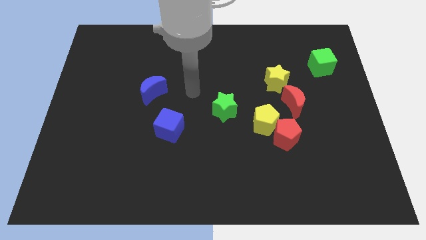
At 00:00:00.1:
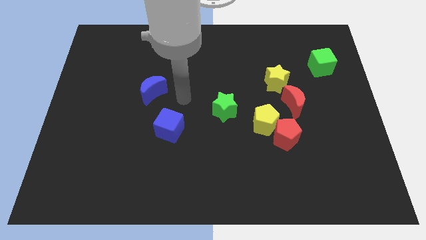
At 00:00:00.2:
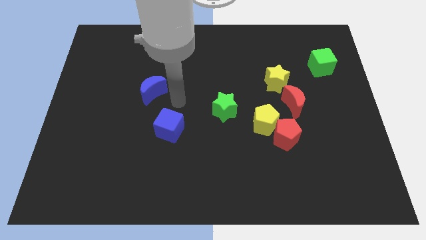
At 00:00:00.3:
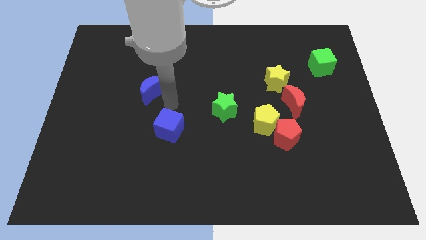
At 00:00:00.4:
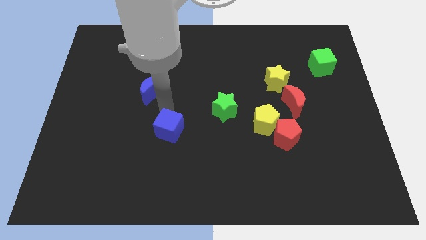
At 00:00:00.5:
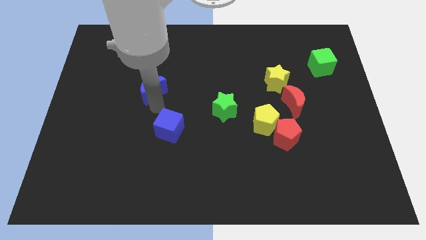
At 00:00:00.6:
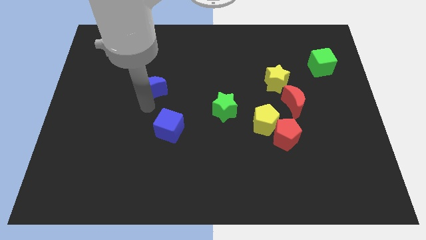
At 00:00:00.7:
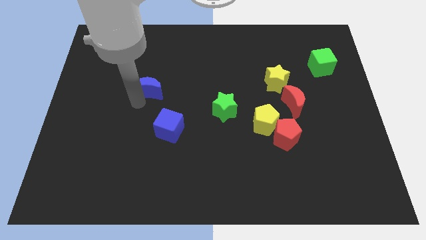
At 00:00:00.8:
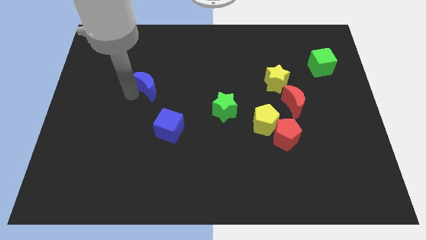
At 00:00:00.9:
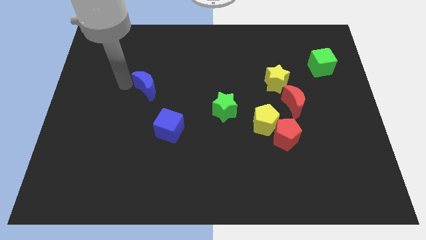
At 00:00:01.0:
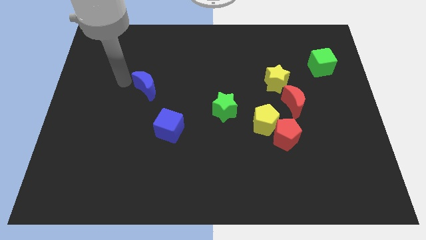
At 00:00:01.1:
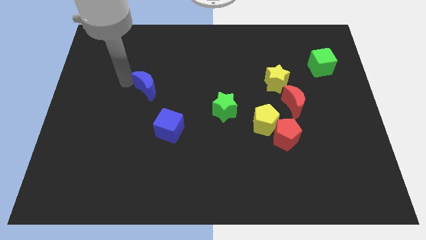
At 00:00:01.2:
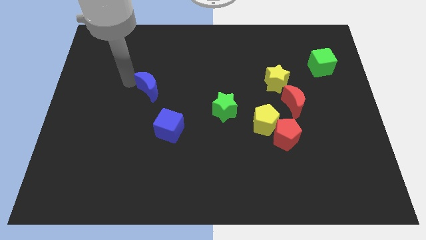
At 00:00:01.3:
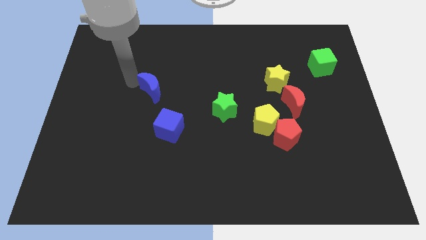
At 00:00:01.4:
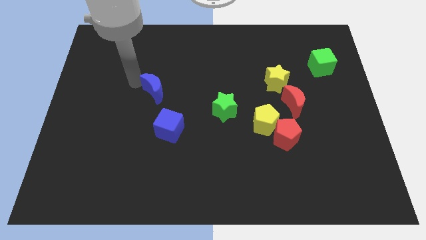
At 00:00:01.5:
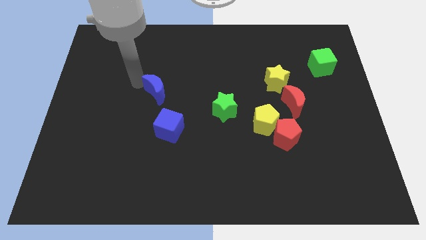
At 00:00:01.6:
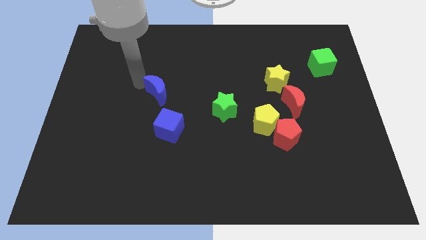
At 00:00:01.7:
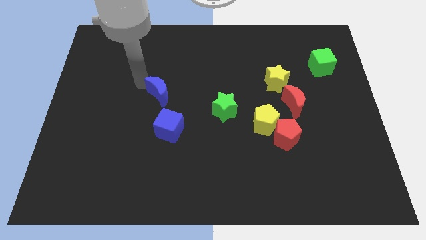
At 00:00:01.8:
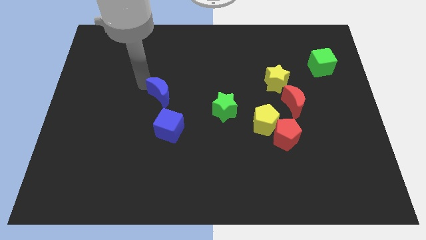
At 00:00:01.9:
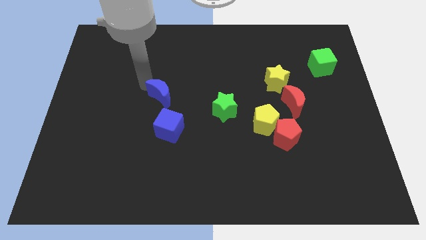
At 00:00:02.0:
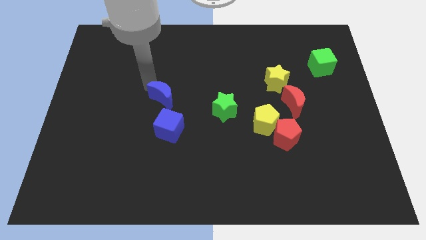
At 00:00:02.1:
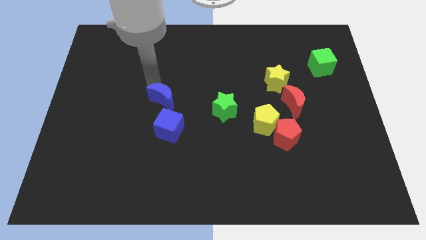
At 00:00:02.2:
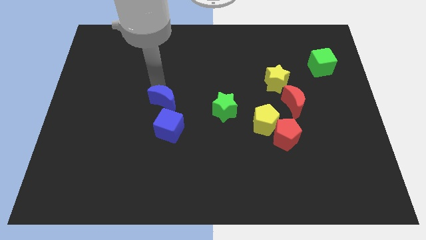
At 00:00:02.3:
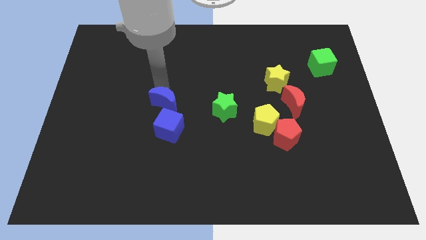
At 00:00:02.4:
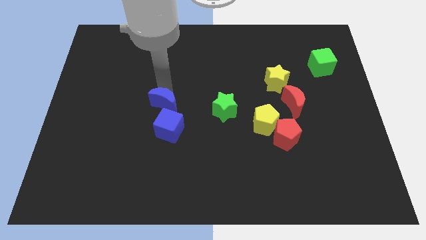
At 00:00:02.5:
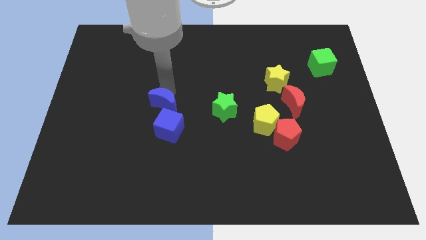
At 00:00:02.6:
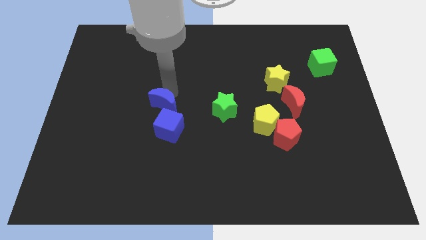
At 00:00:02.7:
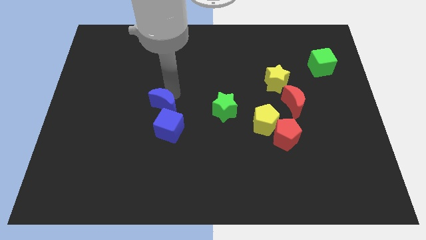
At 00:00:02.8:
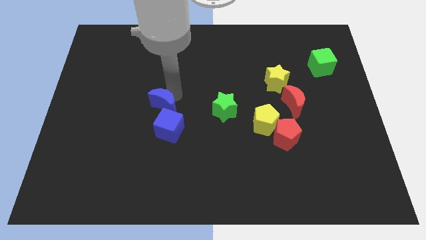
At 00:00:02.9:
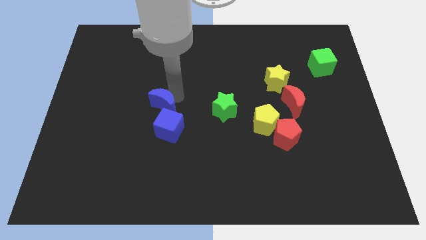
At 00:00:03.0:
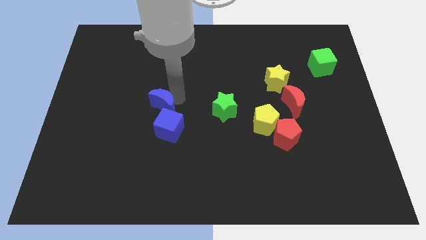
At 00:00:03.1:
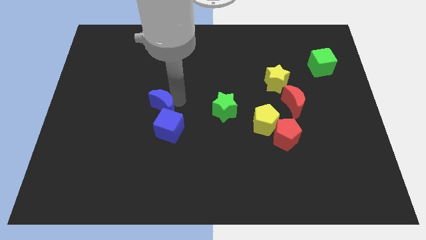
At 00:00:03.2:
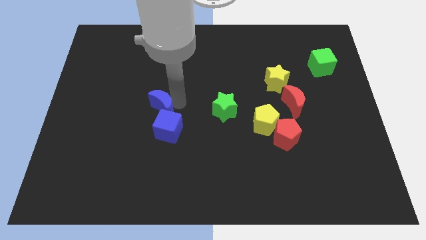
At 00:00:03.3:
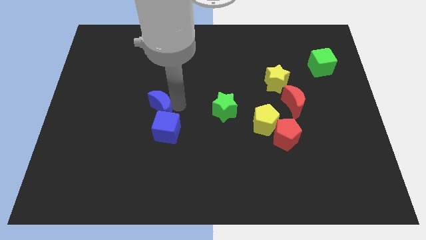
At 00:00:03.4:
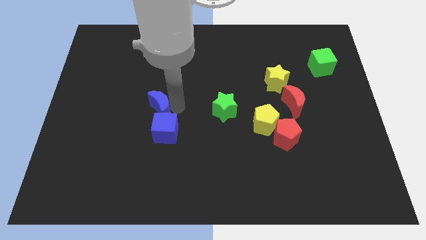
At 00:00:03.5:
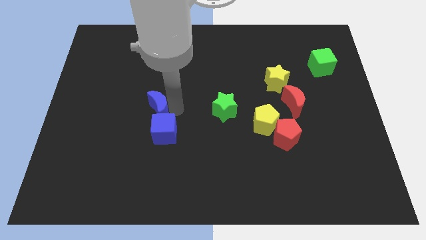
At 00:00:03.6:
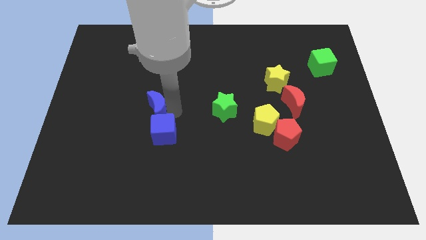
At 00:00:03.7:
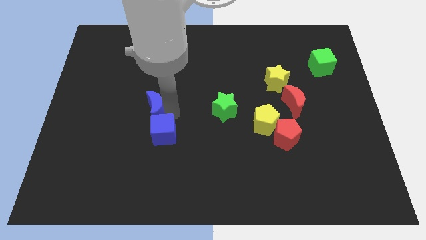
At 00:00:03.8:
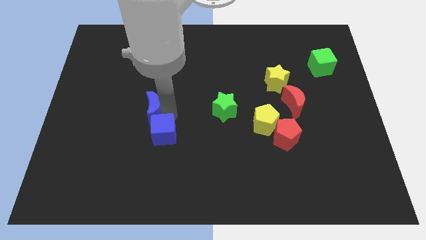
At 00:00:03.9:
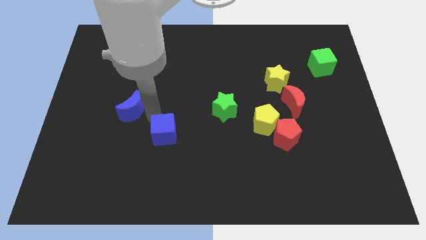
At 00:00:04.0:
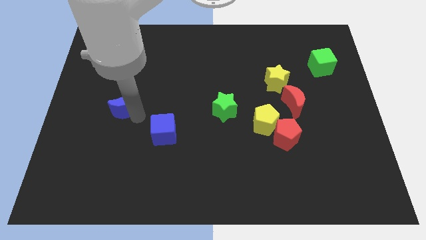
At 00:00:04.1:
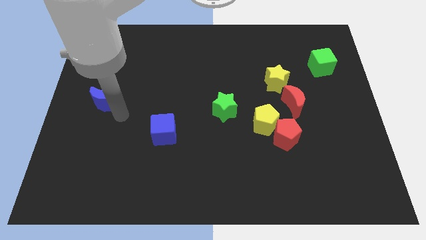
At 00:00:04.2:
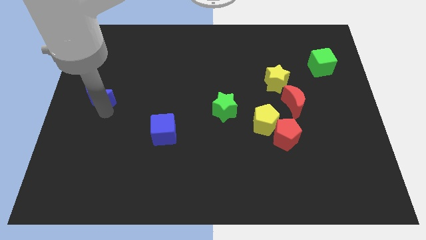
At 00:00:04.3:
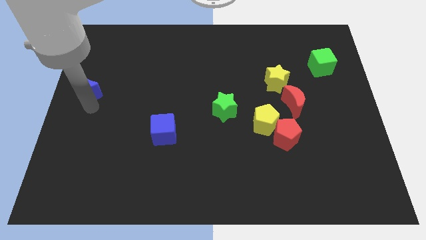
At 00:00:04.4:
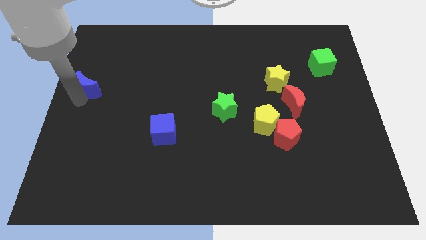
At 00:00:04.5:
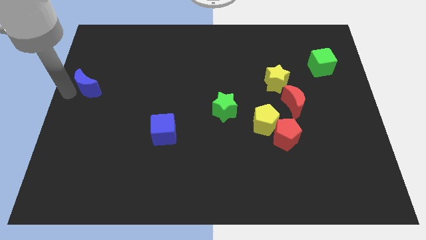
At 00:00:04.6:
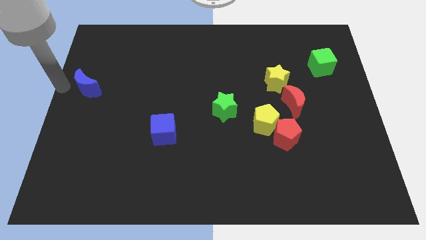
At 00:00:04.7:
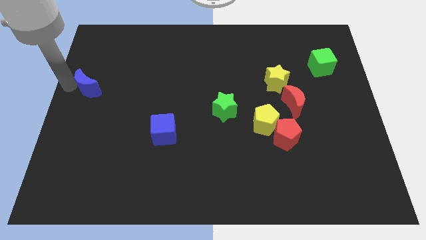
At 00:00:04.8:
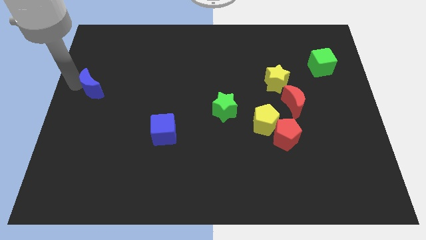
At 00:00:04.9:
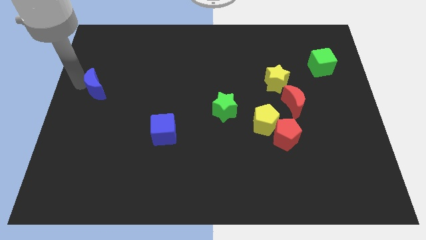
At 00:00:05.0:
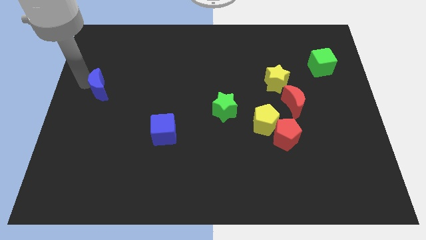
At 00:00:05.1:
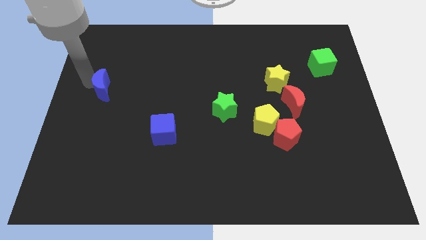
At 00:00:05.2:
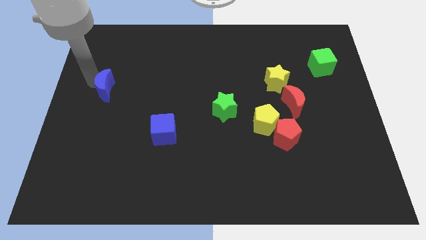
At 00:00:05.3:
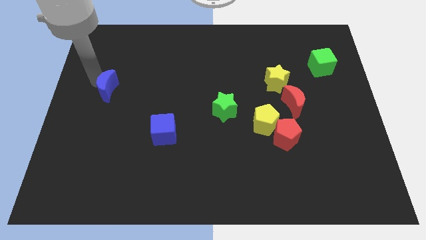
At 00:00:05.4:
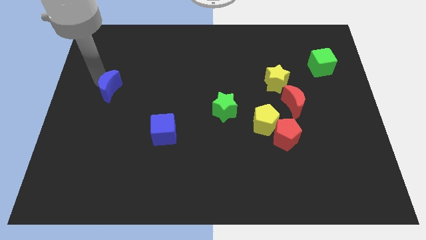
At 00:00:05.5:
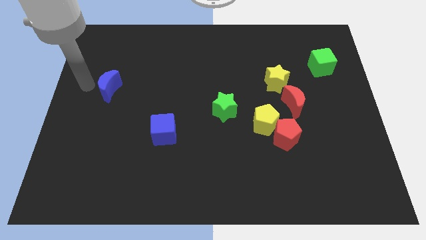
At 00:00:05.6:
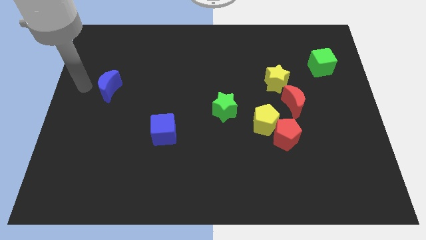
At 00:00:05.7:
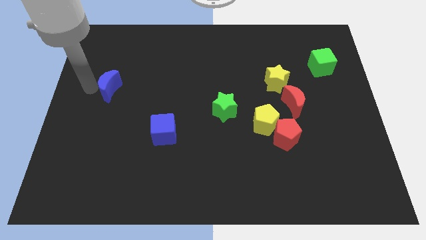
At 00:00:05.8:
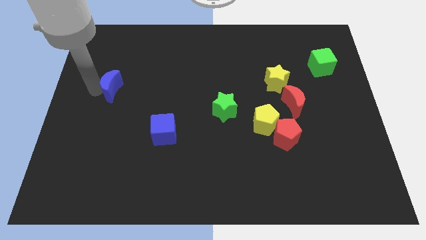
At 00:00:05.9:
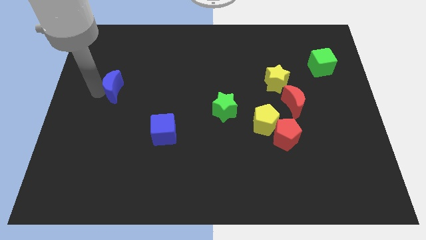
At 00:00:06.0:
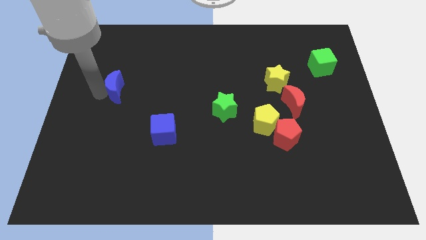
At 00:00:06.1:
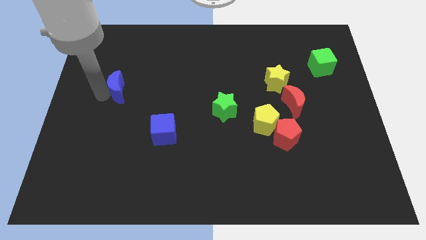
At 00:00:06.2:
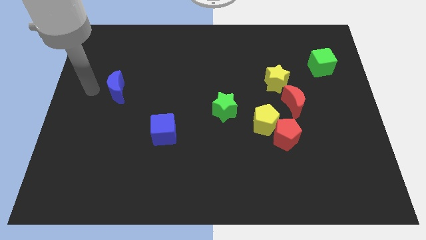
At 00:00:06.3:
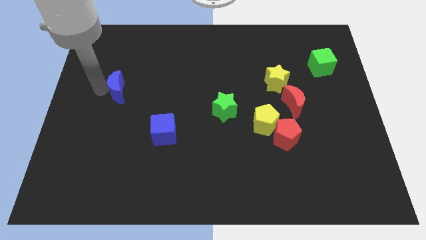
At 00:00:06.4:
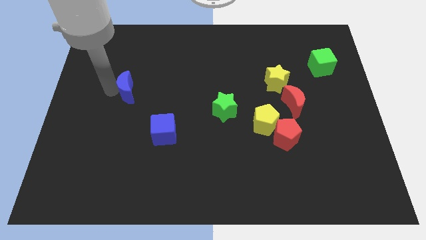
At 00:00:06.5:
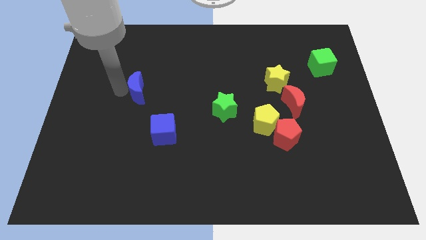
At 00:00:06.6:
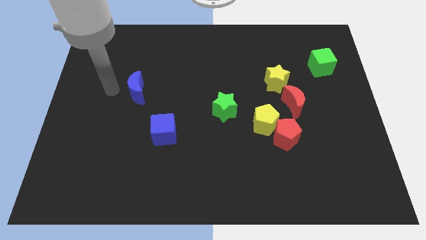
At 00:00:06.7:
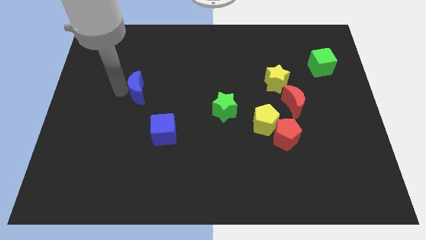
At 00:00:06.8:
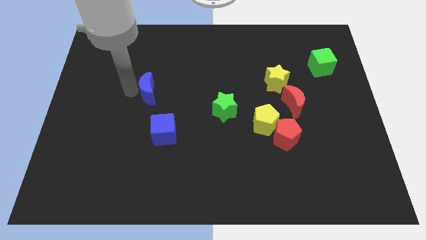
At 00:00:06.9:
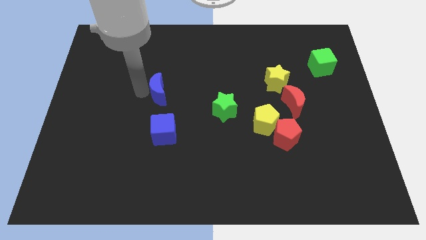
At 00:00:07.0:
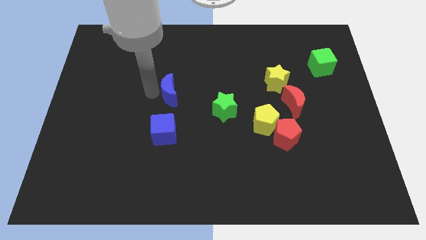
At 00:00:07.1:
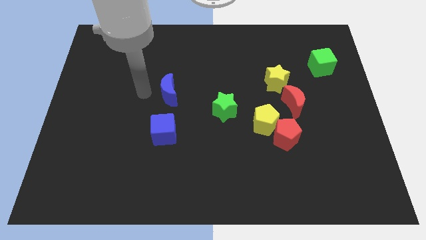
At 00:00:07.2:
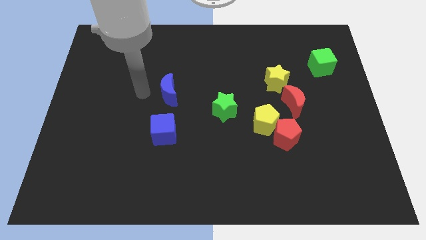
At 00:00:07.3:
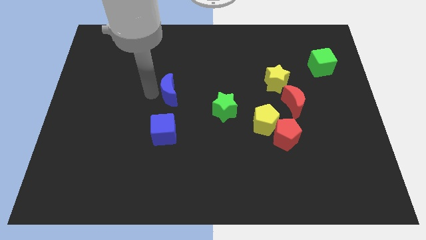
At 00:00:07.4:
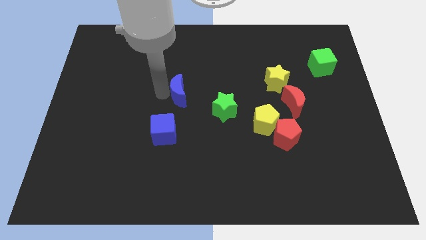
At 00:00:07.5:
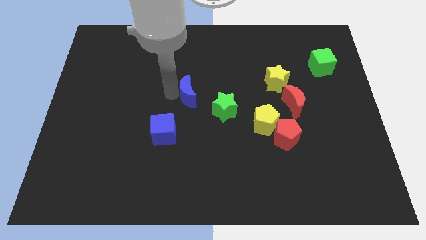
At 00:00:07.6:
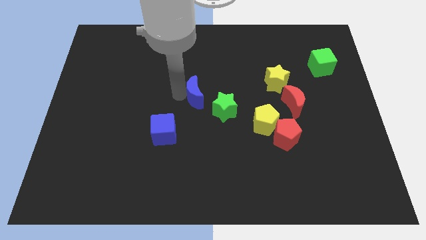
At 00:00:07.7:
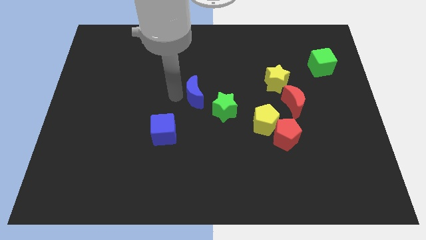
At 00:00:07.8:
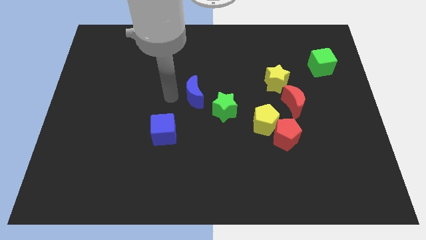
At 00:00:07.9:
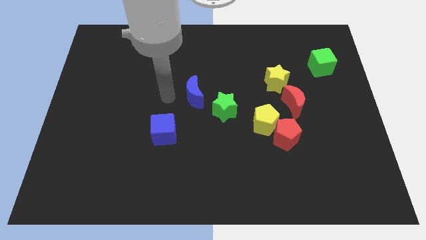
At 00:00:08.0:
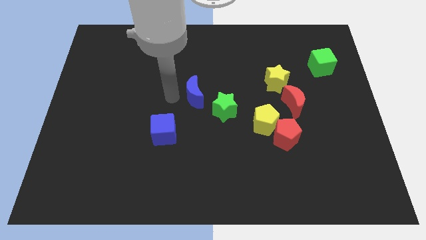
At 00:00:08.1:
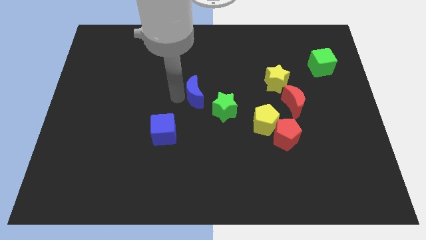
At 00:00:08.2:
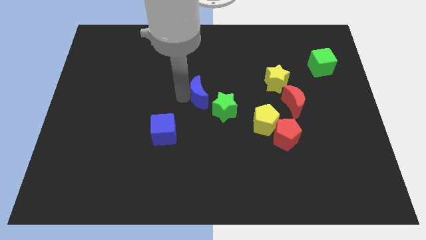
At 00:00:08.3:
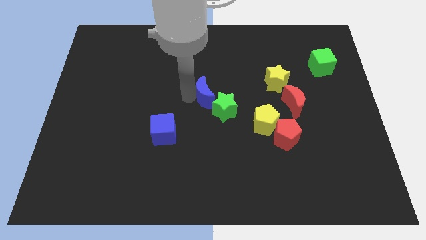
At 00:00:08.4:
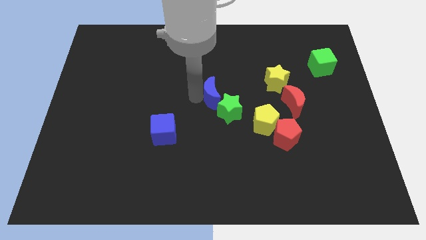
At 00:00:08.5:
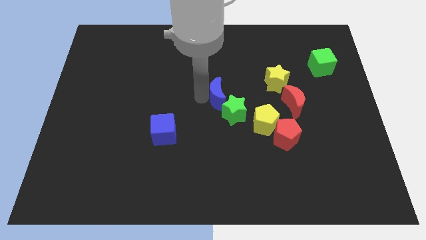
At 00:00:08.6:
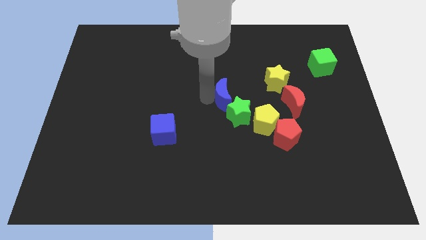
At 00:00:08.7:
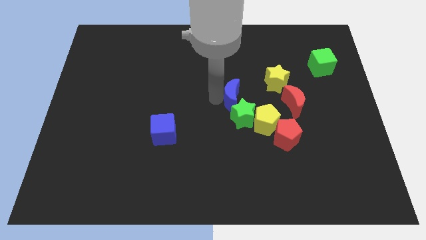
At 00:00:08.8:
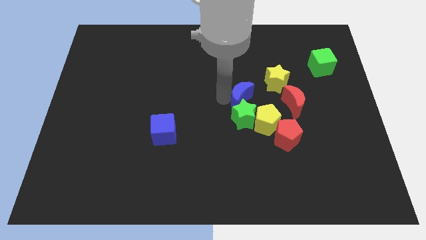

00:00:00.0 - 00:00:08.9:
move the blue moon diagonally down and to the left of the yellow star
